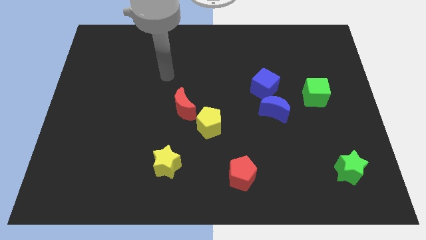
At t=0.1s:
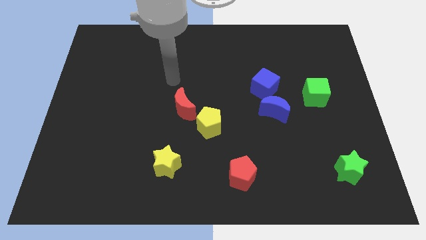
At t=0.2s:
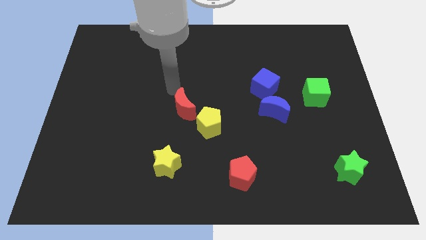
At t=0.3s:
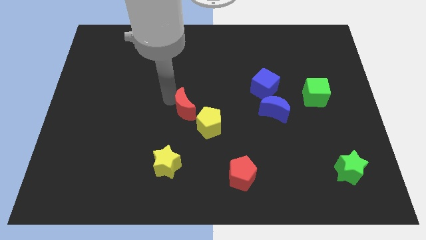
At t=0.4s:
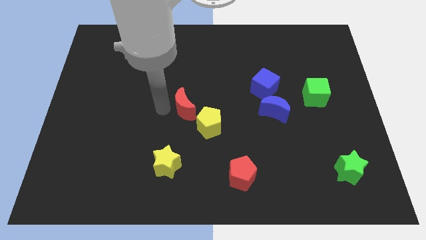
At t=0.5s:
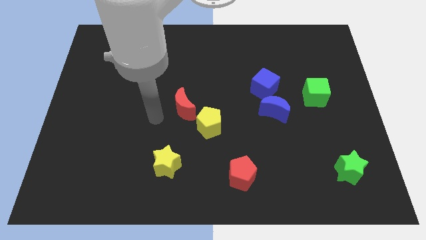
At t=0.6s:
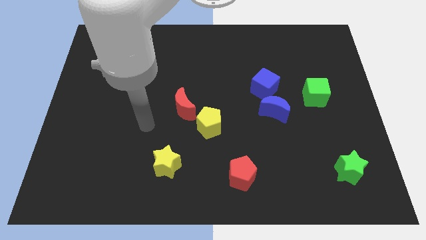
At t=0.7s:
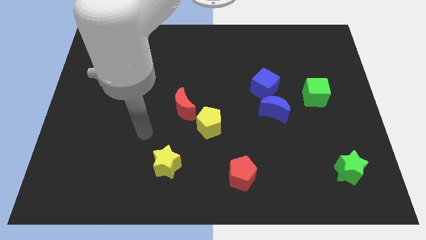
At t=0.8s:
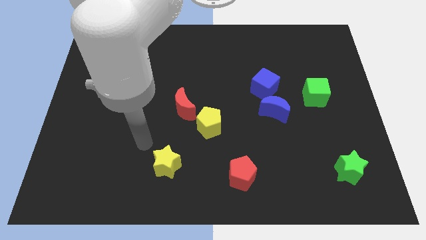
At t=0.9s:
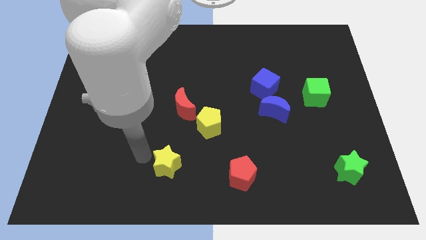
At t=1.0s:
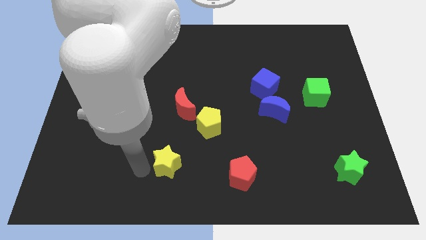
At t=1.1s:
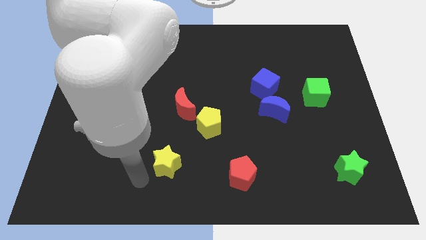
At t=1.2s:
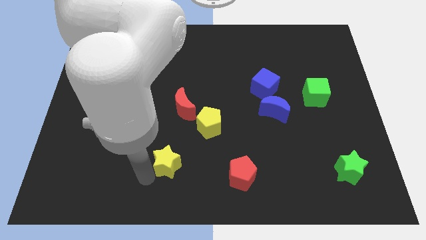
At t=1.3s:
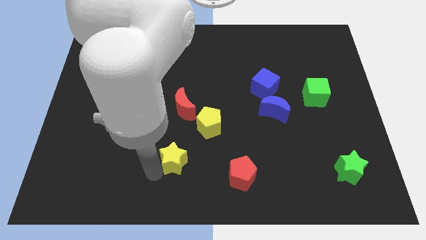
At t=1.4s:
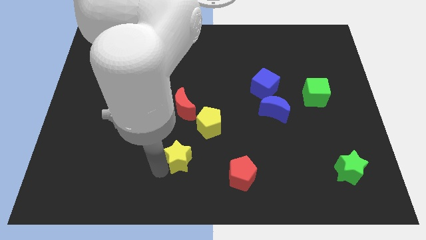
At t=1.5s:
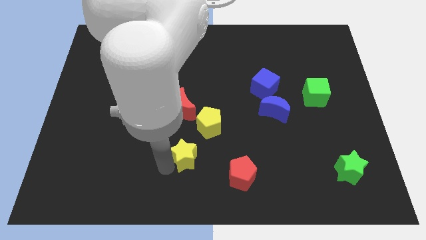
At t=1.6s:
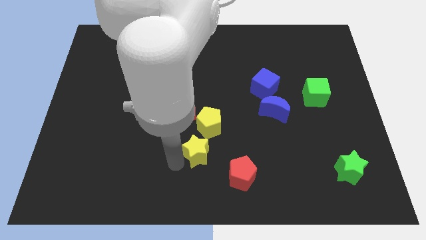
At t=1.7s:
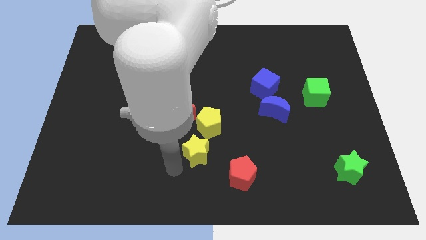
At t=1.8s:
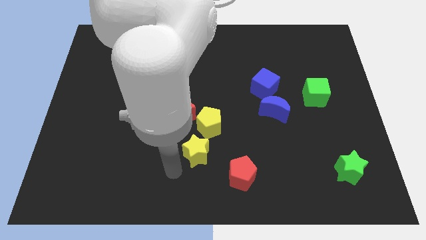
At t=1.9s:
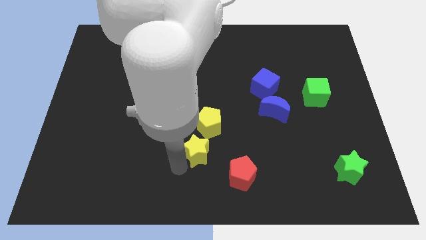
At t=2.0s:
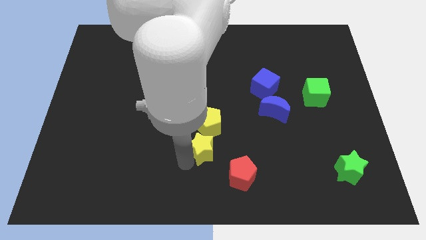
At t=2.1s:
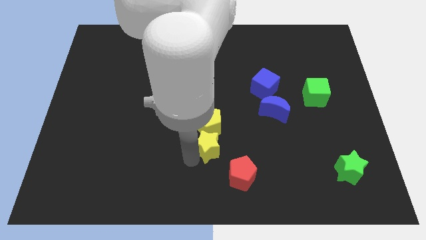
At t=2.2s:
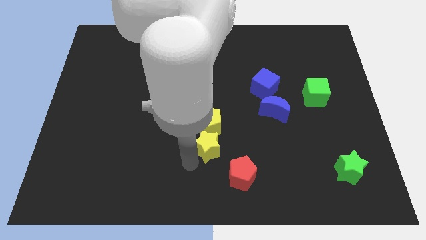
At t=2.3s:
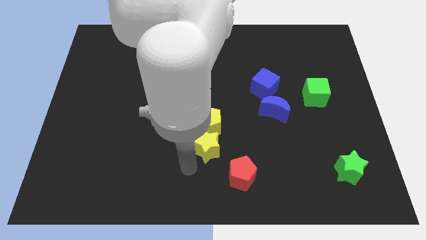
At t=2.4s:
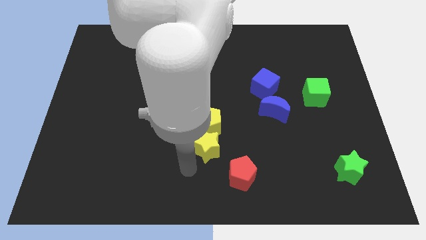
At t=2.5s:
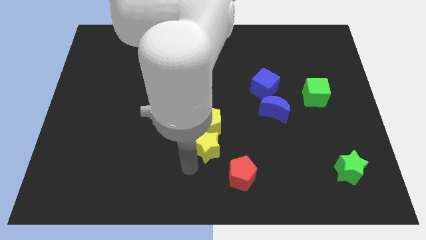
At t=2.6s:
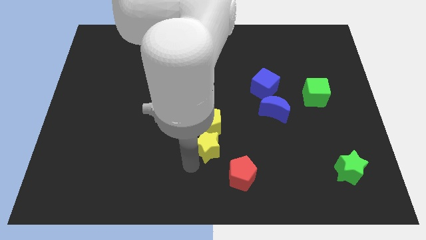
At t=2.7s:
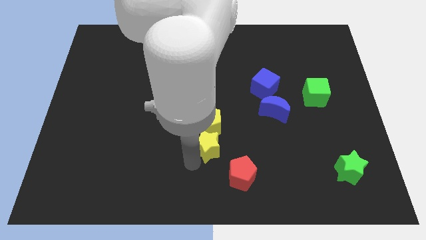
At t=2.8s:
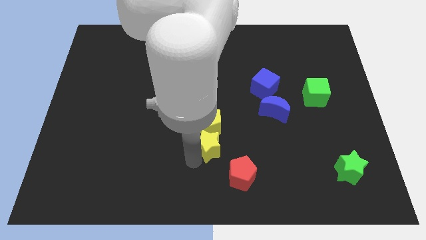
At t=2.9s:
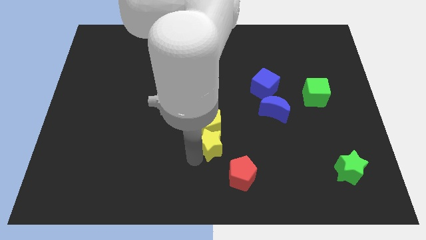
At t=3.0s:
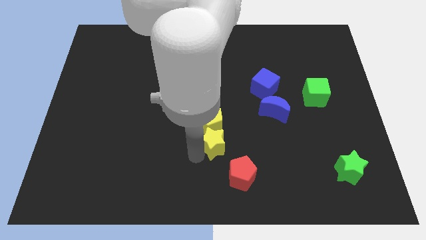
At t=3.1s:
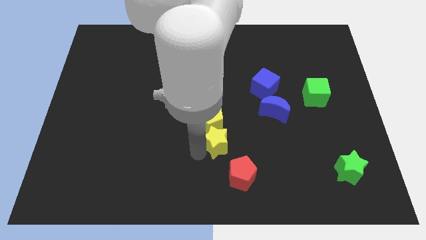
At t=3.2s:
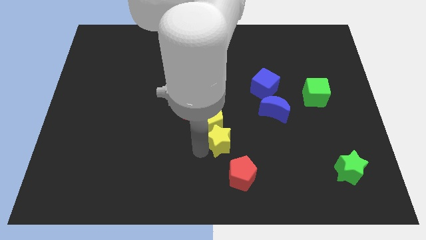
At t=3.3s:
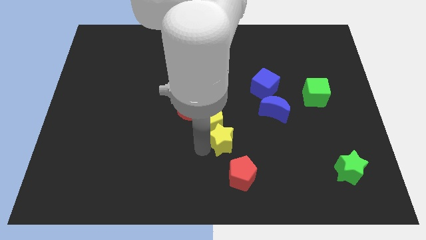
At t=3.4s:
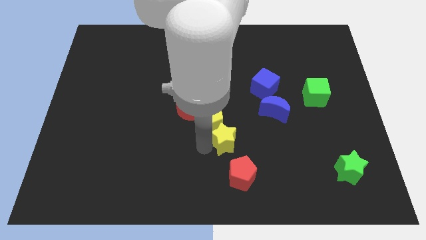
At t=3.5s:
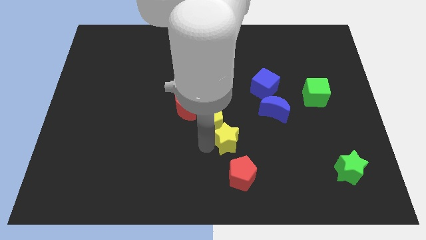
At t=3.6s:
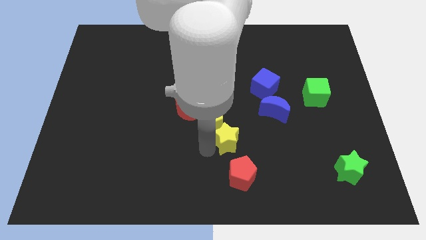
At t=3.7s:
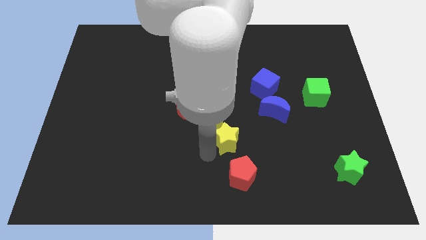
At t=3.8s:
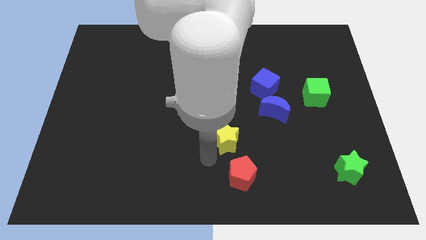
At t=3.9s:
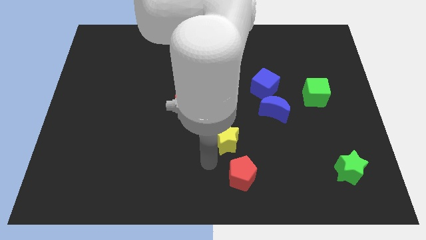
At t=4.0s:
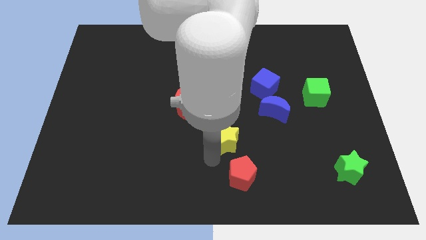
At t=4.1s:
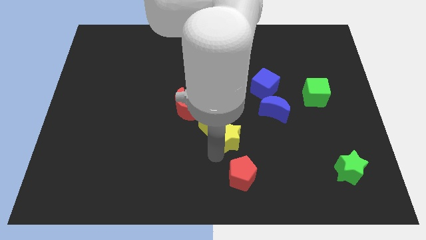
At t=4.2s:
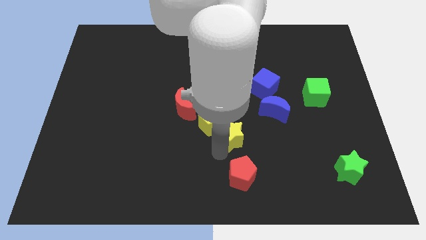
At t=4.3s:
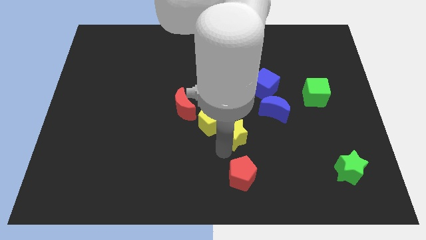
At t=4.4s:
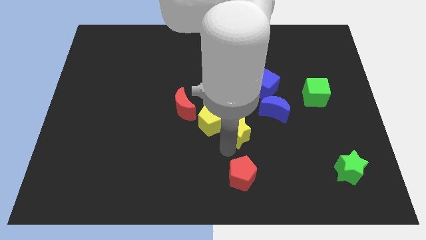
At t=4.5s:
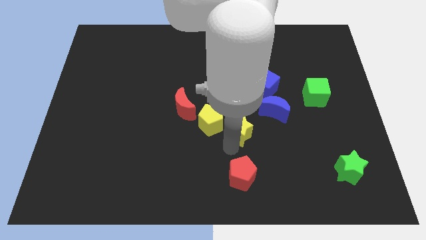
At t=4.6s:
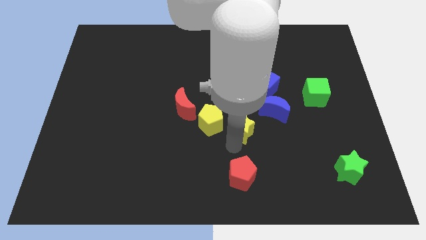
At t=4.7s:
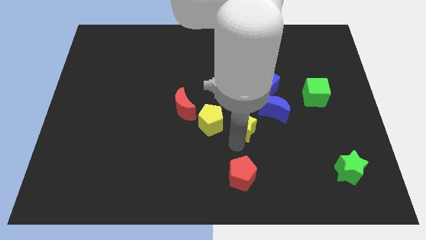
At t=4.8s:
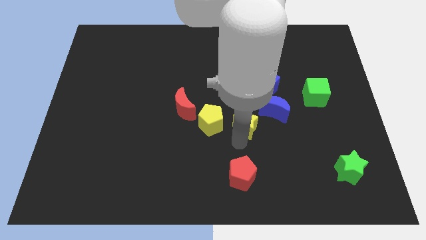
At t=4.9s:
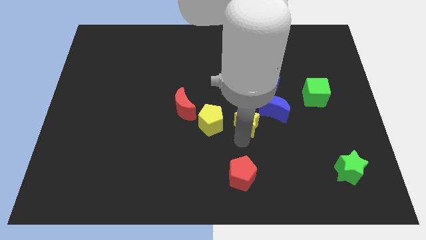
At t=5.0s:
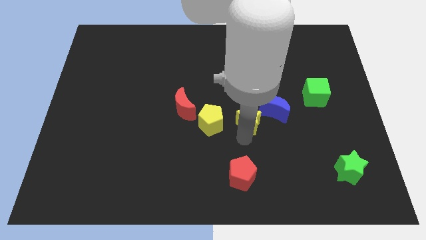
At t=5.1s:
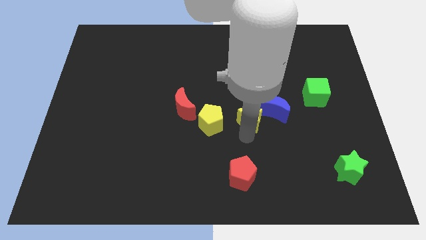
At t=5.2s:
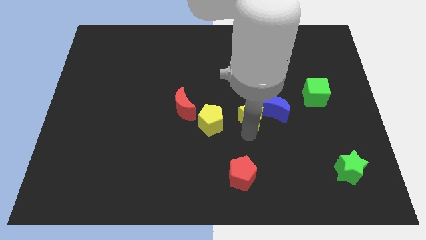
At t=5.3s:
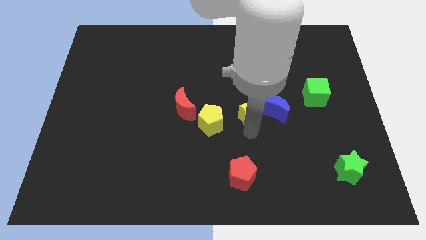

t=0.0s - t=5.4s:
slide the yellow star to the right side of the red moon

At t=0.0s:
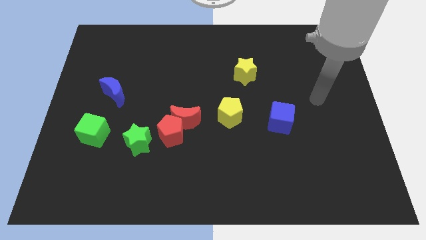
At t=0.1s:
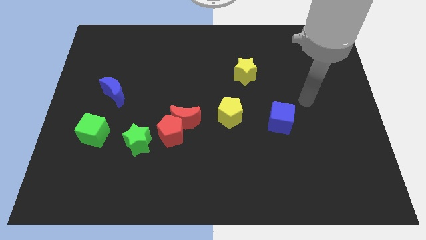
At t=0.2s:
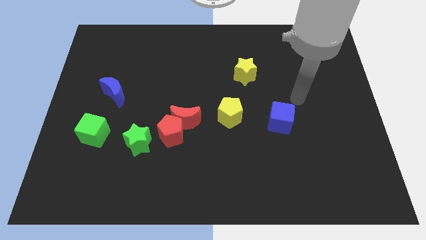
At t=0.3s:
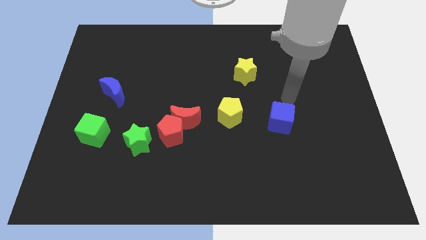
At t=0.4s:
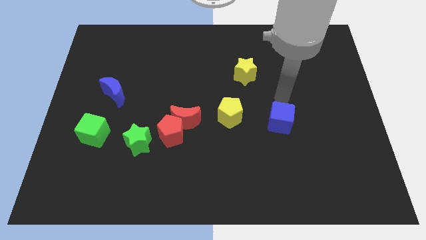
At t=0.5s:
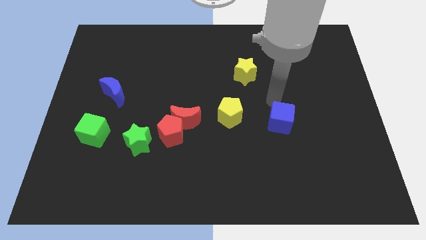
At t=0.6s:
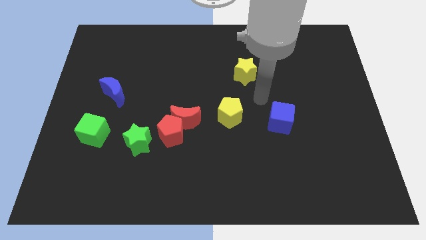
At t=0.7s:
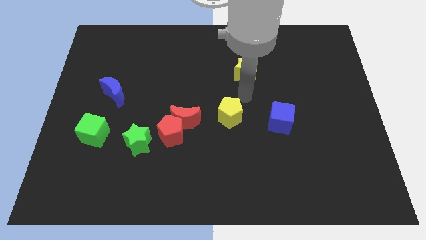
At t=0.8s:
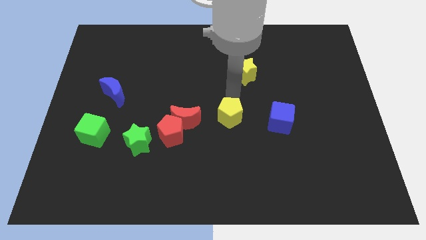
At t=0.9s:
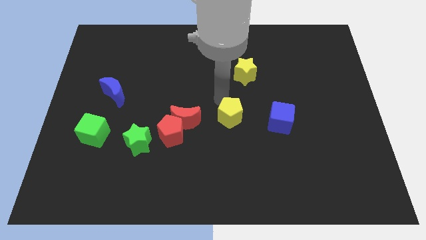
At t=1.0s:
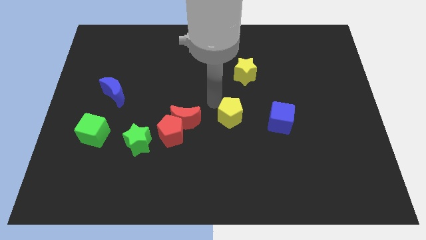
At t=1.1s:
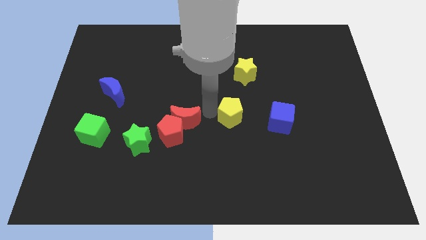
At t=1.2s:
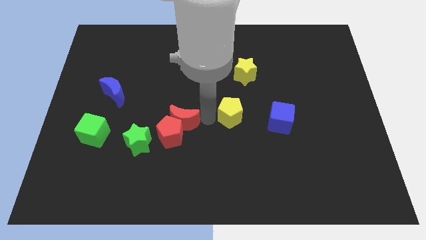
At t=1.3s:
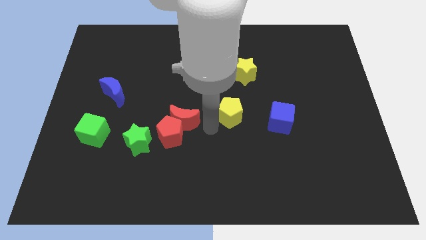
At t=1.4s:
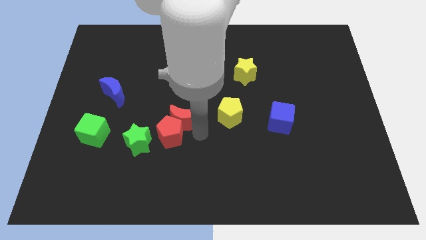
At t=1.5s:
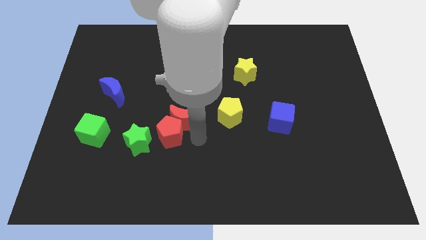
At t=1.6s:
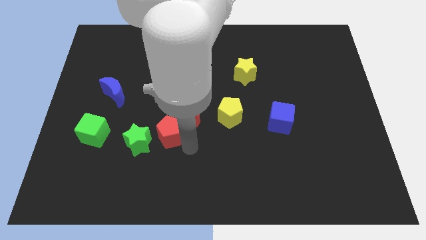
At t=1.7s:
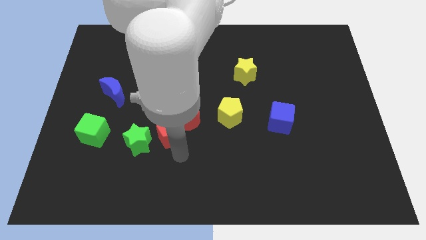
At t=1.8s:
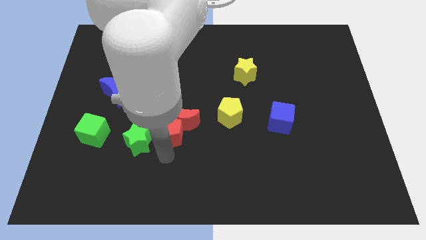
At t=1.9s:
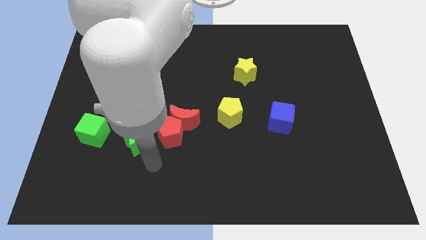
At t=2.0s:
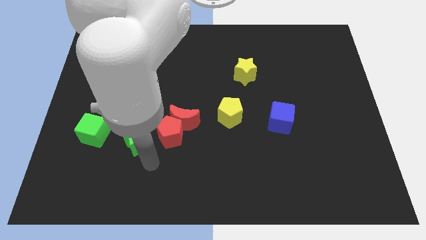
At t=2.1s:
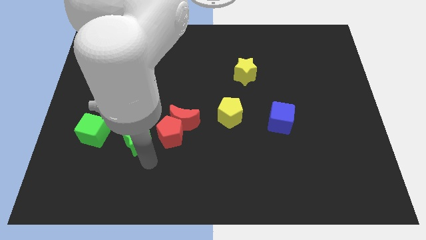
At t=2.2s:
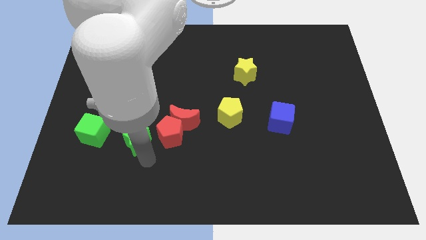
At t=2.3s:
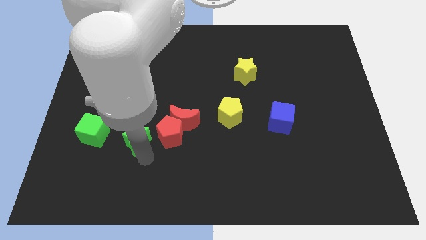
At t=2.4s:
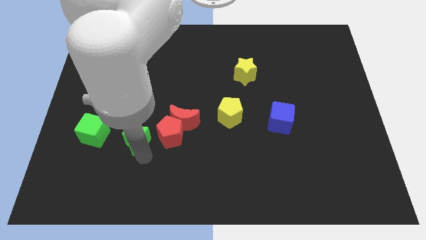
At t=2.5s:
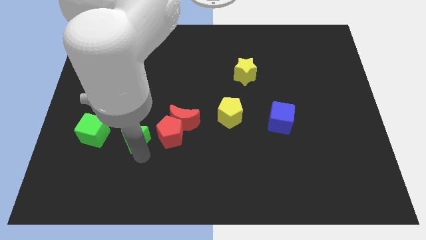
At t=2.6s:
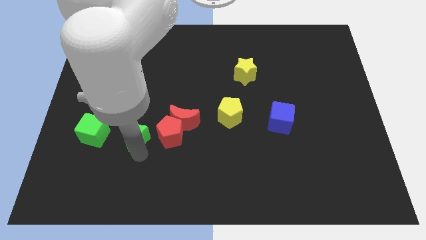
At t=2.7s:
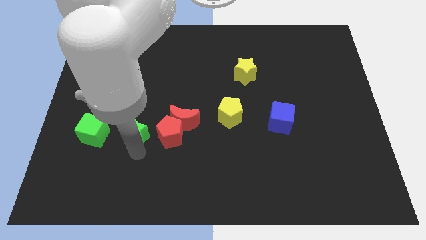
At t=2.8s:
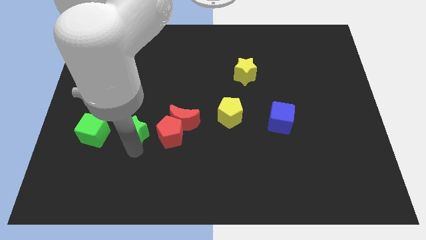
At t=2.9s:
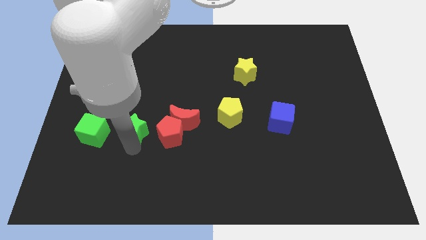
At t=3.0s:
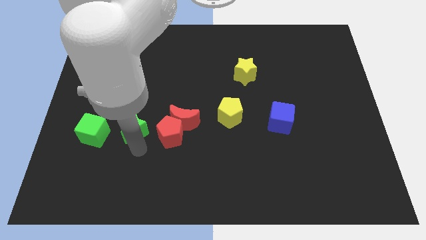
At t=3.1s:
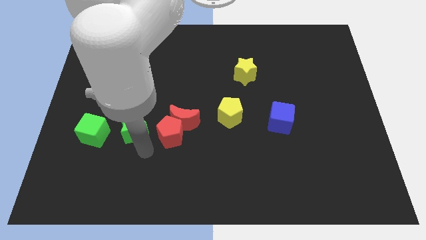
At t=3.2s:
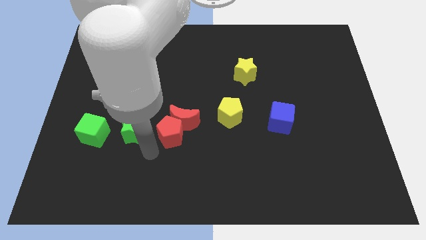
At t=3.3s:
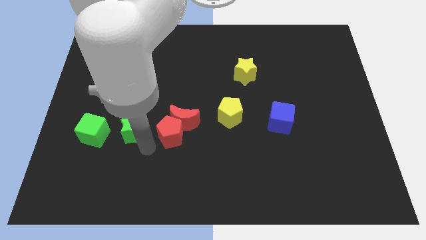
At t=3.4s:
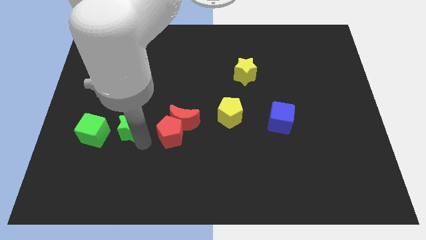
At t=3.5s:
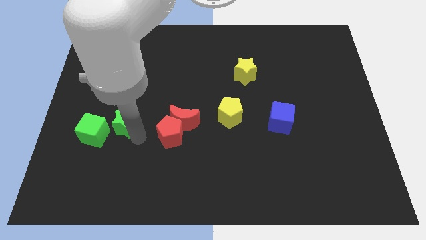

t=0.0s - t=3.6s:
move the green star to the top right of the green cube
